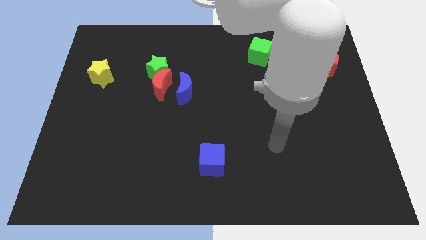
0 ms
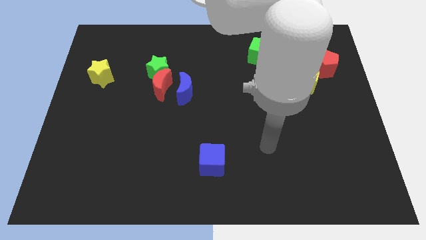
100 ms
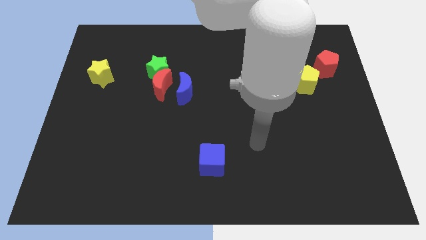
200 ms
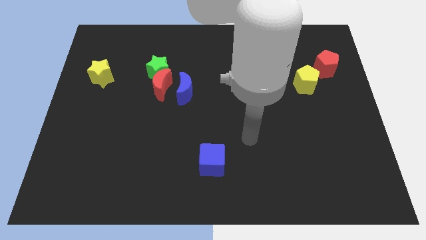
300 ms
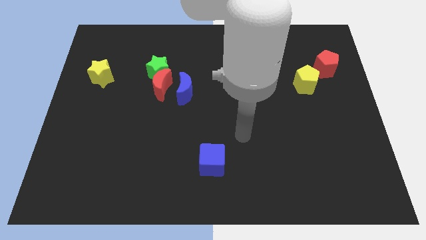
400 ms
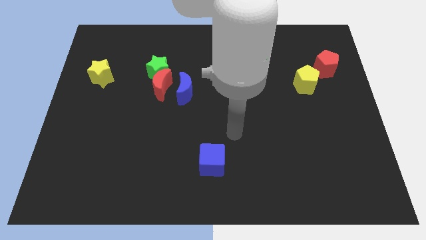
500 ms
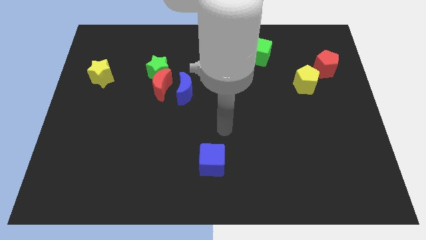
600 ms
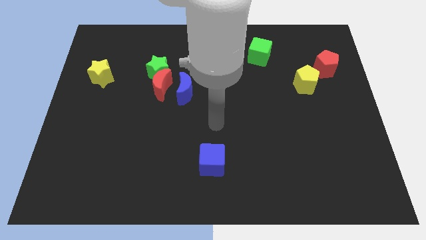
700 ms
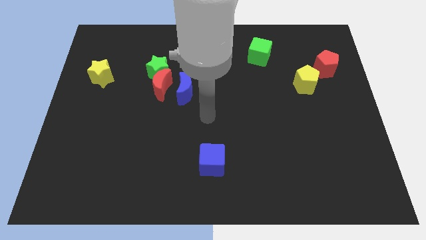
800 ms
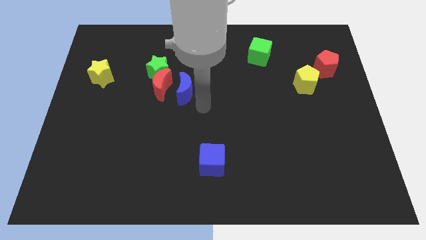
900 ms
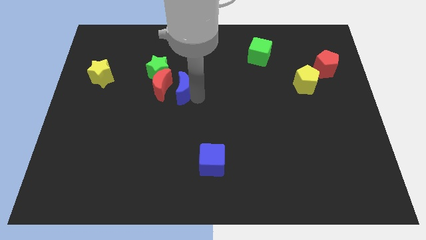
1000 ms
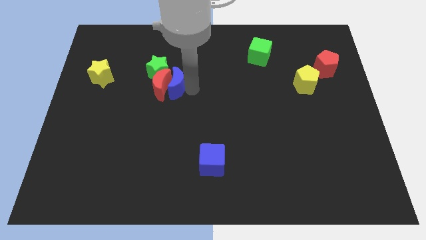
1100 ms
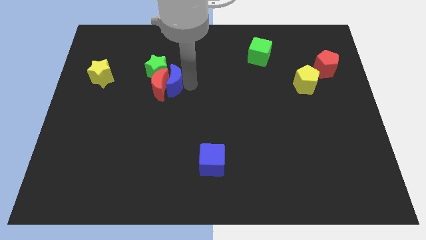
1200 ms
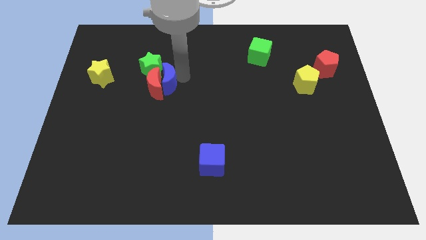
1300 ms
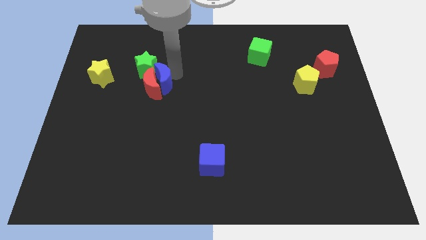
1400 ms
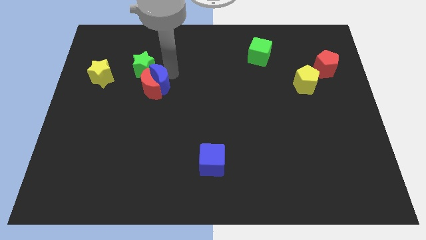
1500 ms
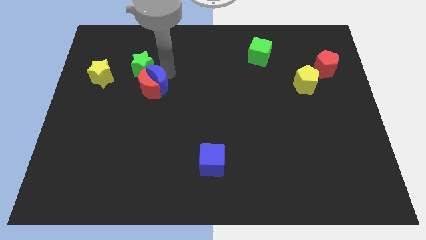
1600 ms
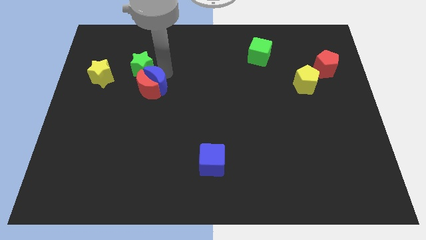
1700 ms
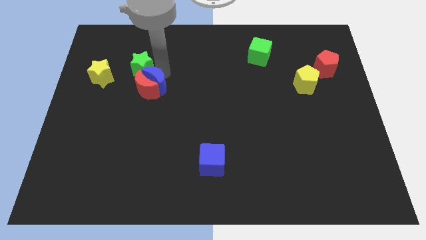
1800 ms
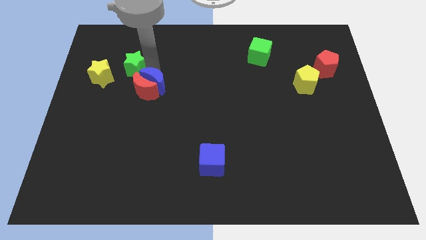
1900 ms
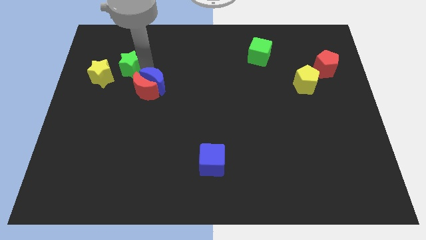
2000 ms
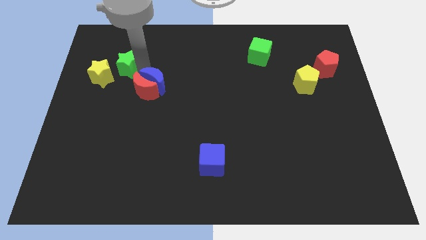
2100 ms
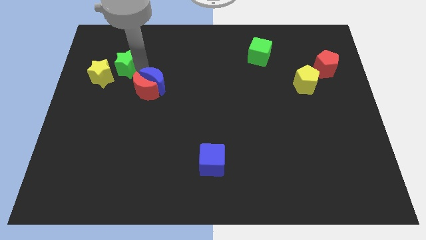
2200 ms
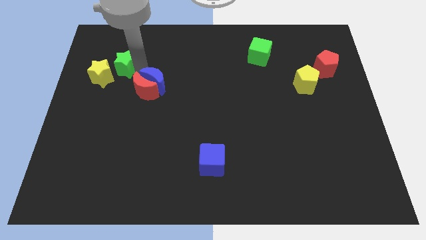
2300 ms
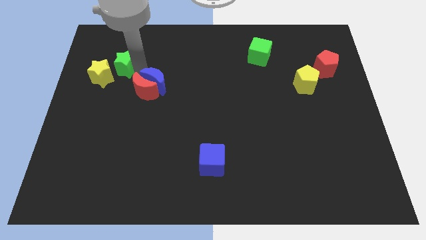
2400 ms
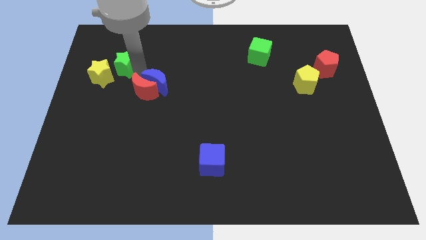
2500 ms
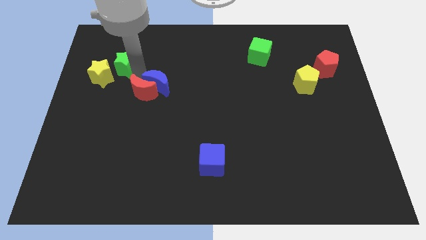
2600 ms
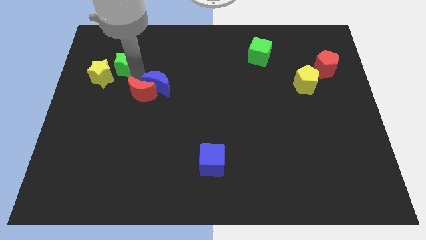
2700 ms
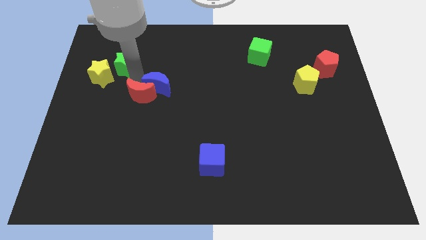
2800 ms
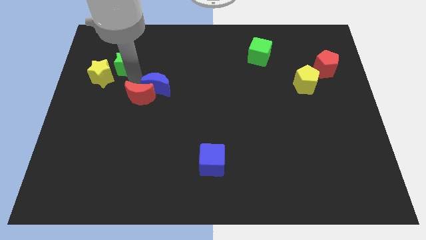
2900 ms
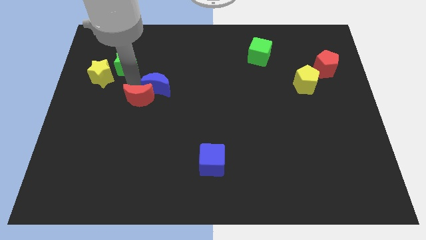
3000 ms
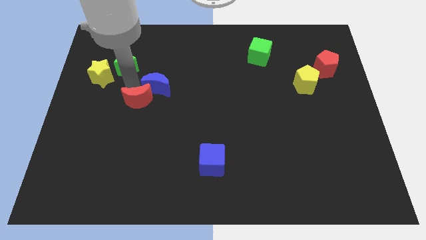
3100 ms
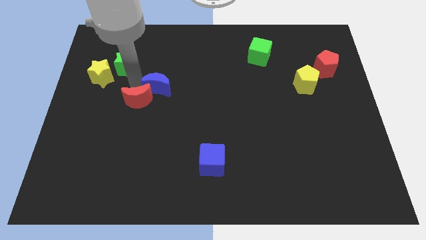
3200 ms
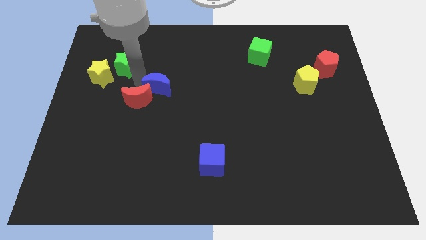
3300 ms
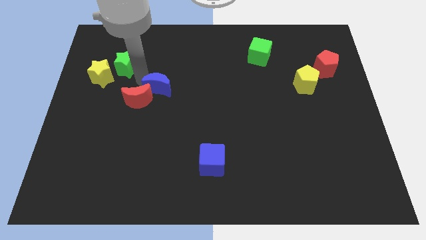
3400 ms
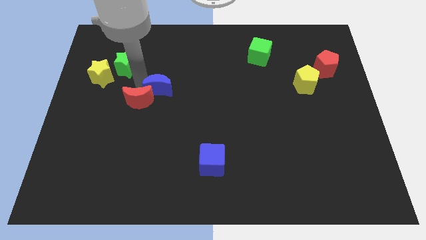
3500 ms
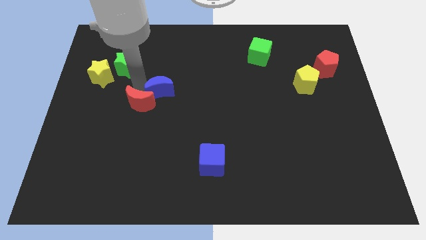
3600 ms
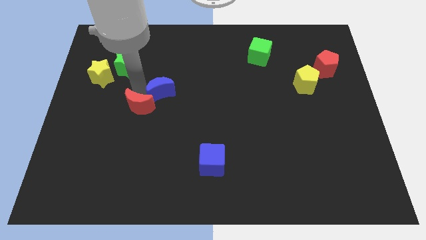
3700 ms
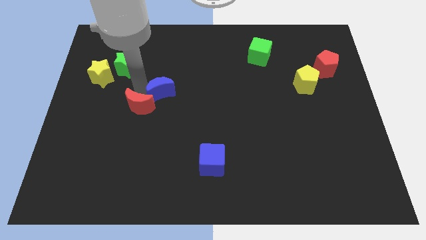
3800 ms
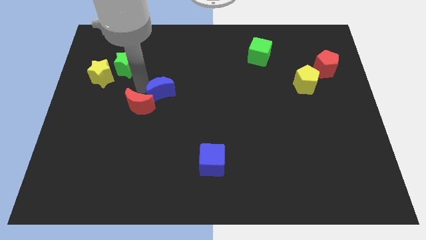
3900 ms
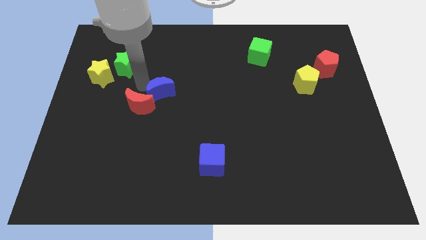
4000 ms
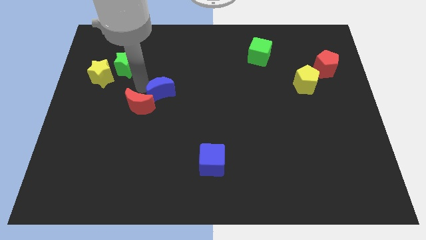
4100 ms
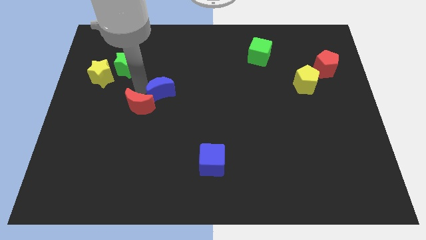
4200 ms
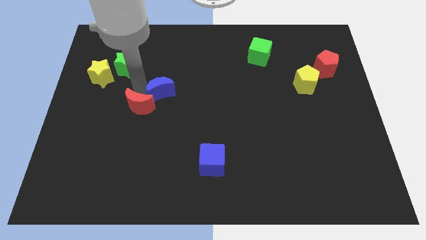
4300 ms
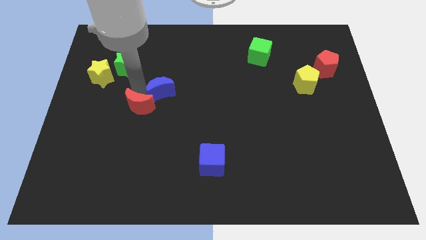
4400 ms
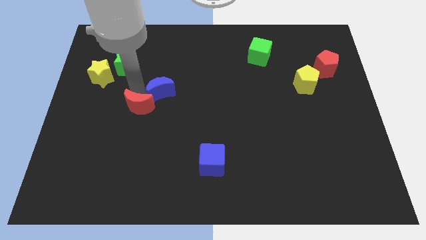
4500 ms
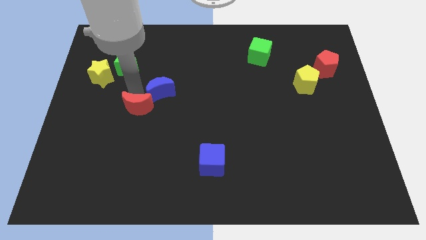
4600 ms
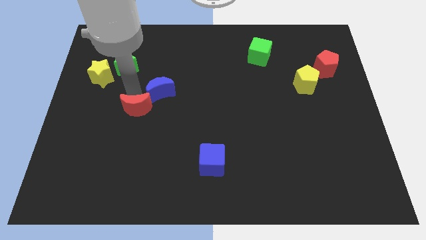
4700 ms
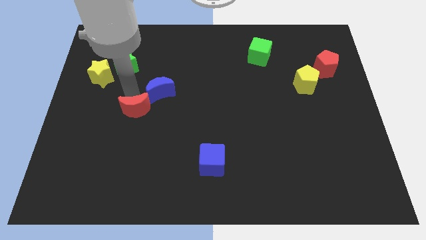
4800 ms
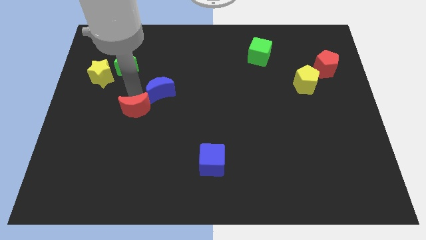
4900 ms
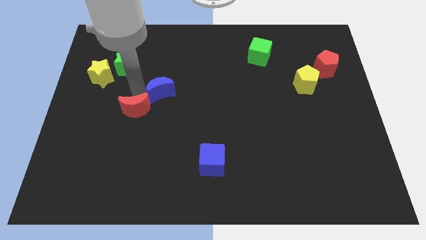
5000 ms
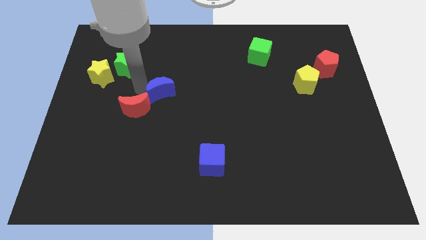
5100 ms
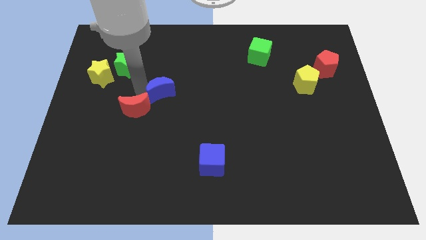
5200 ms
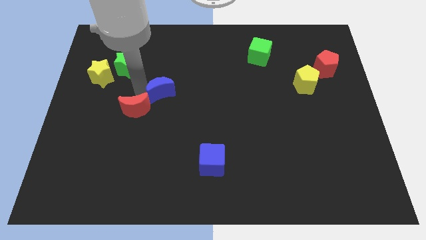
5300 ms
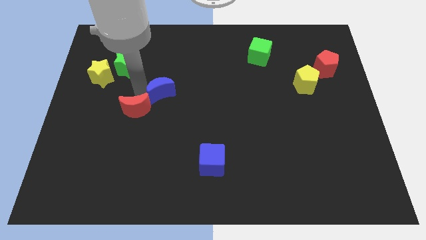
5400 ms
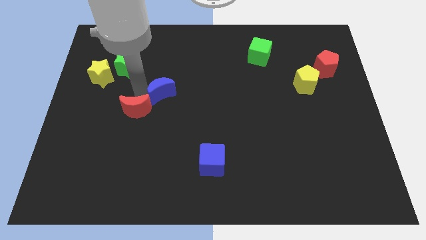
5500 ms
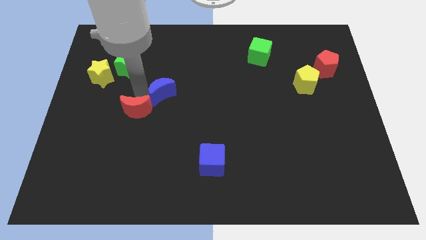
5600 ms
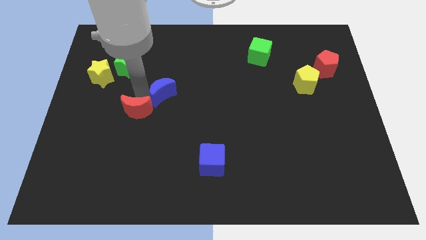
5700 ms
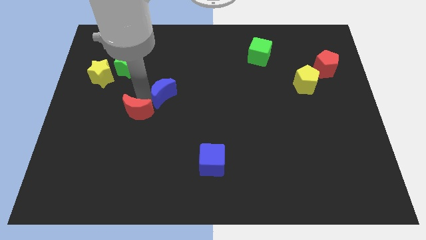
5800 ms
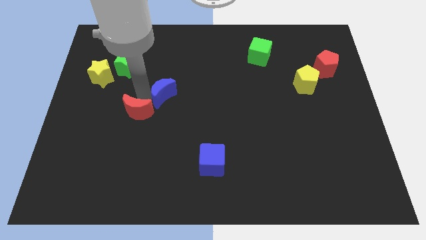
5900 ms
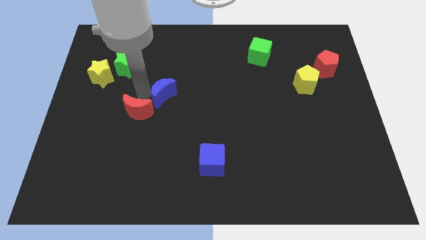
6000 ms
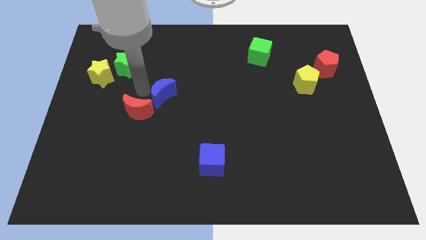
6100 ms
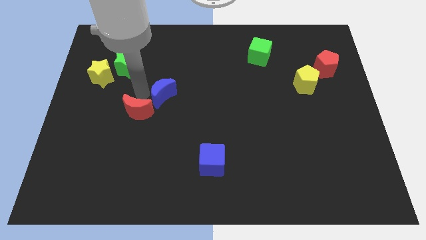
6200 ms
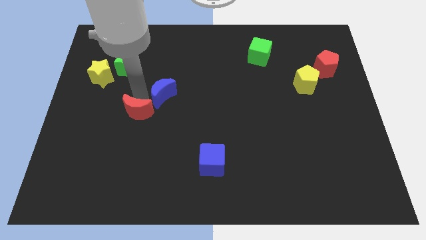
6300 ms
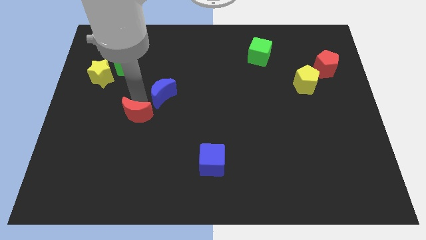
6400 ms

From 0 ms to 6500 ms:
move the red moon away from the green star and blue moon

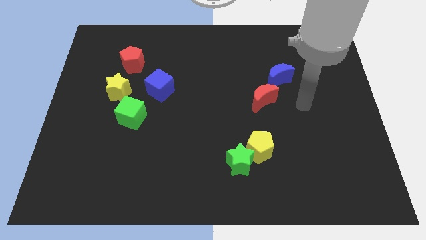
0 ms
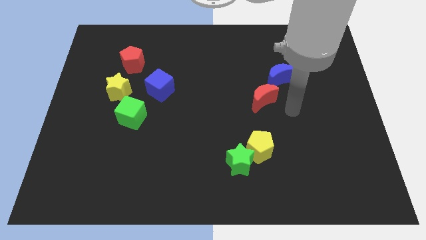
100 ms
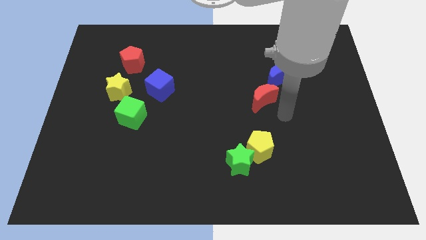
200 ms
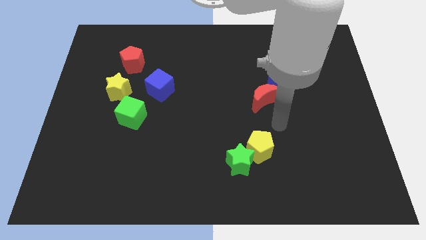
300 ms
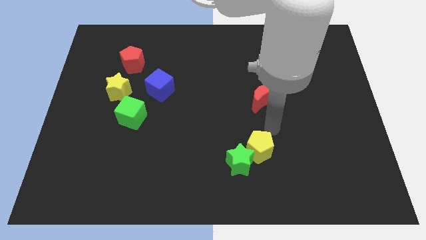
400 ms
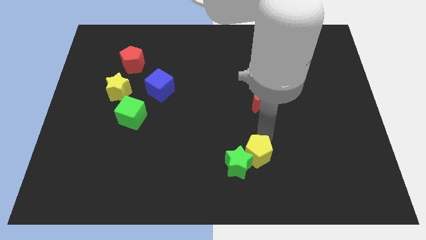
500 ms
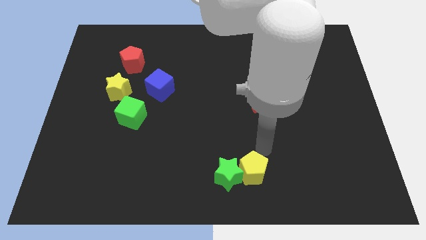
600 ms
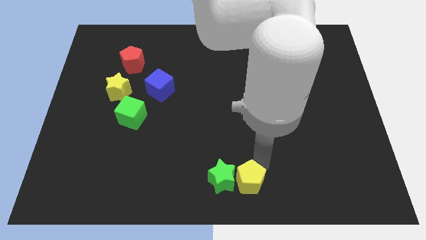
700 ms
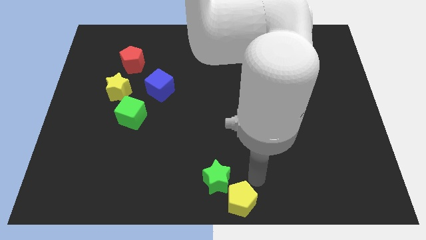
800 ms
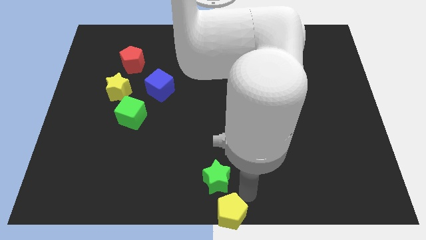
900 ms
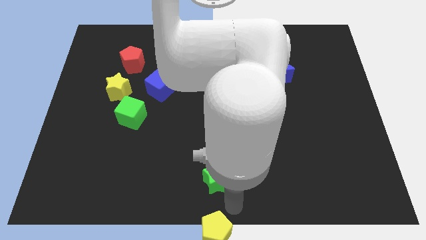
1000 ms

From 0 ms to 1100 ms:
pull the green star apart from the yellow pentagon

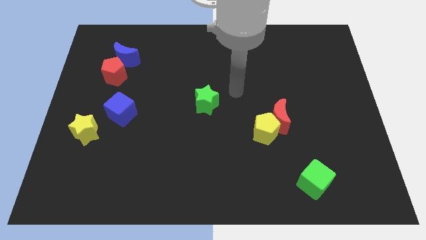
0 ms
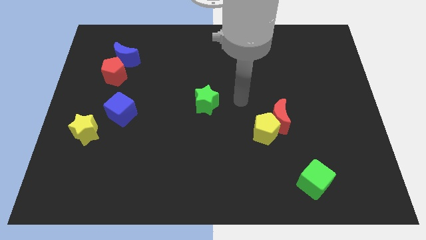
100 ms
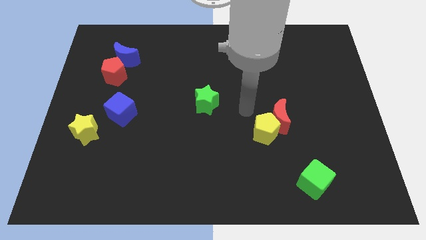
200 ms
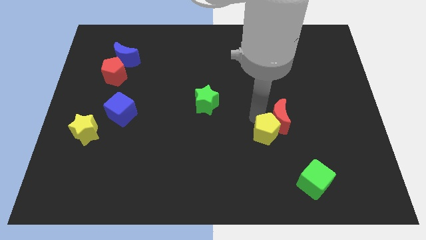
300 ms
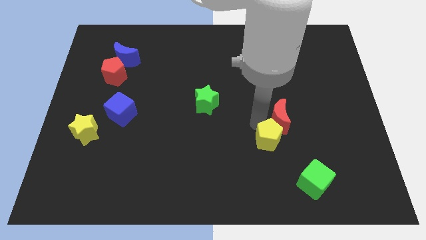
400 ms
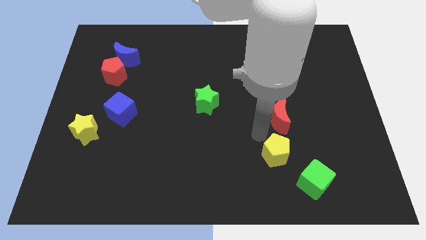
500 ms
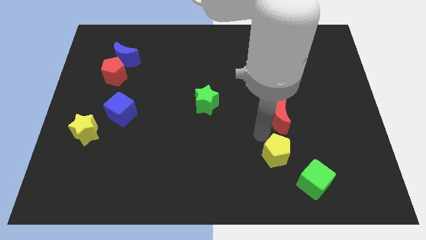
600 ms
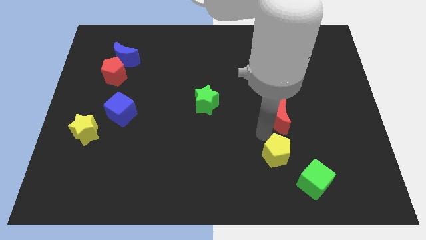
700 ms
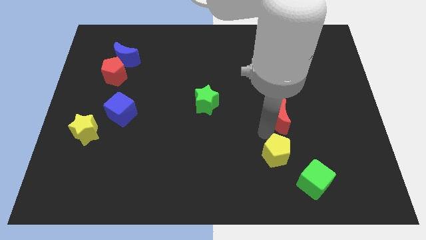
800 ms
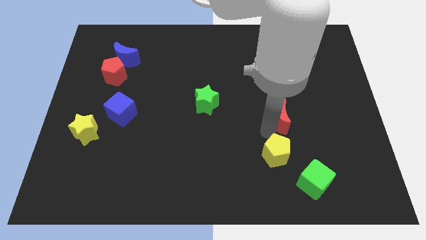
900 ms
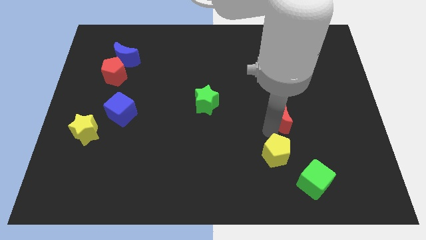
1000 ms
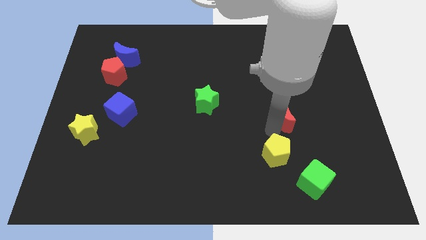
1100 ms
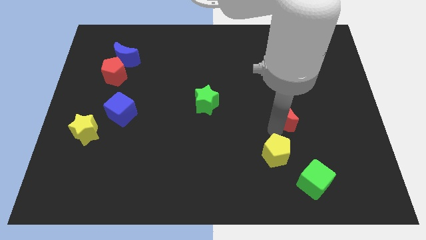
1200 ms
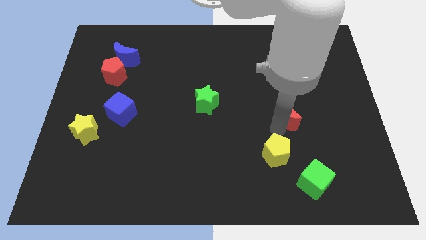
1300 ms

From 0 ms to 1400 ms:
separate the red moon from the yellow pentagon

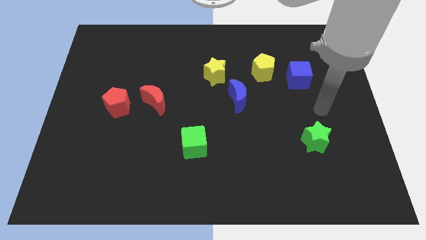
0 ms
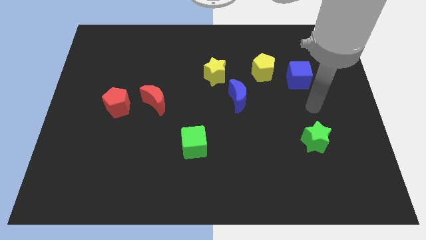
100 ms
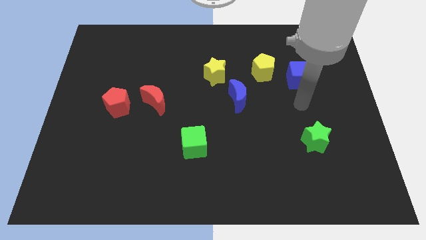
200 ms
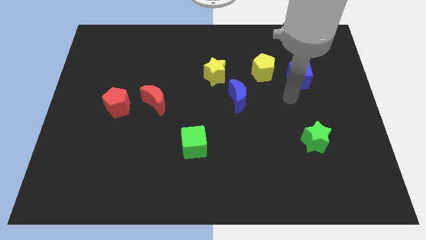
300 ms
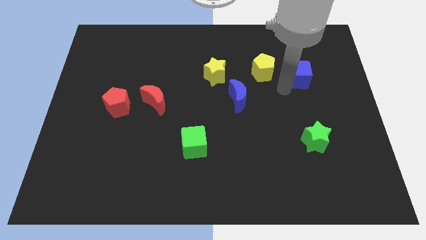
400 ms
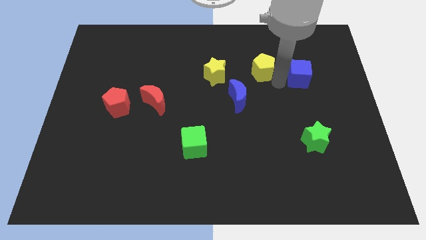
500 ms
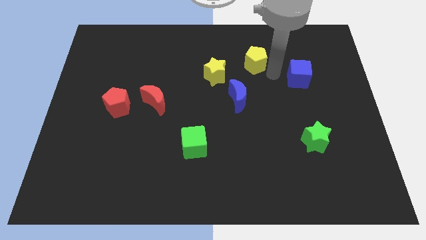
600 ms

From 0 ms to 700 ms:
separate the blue cube from the yellow pentagon
